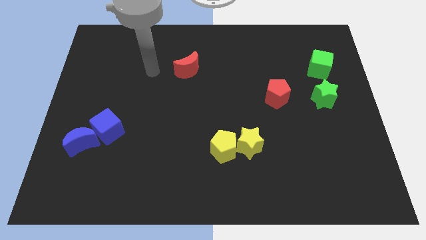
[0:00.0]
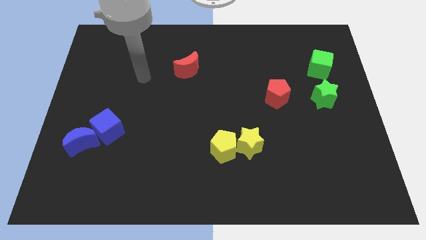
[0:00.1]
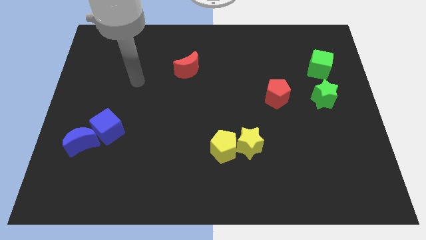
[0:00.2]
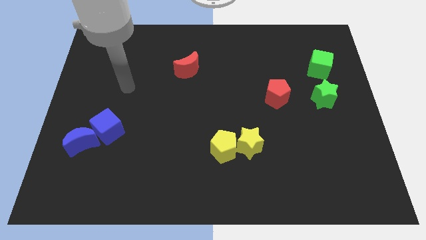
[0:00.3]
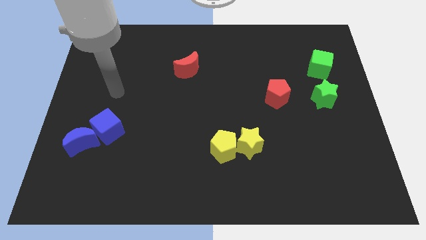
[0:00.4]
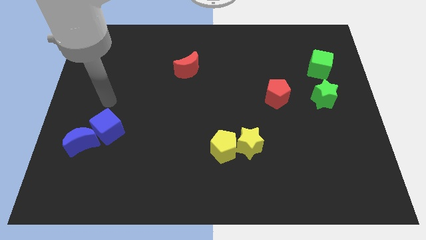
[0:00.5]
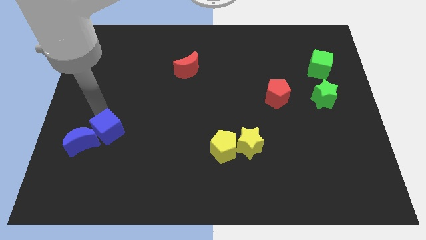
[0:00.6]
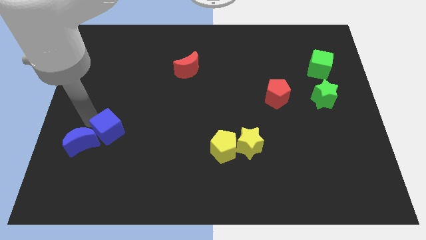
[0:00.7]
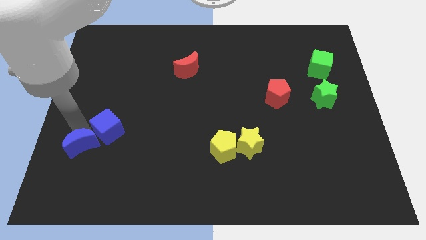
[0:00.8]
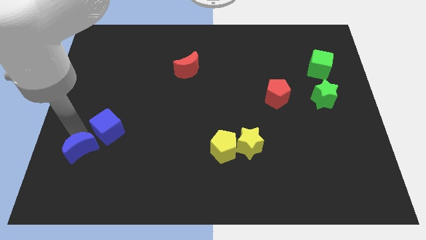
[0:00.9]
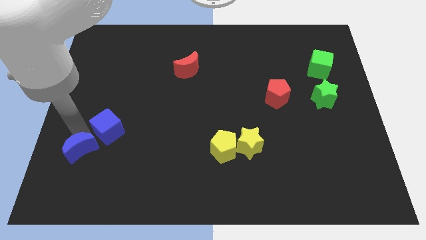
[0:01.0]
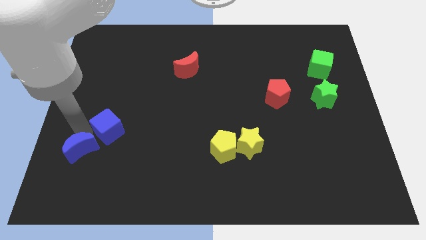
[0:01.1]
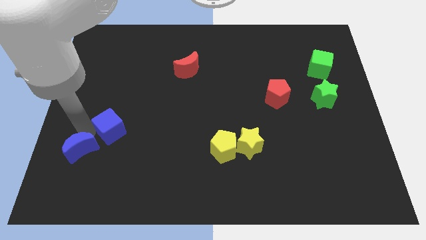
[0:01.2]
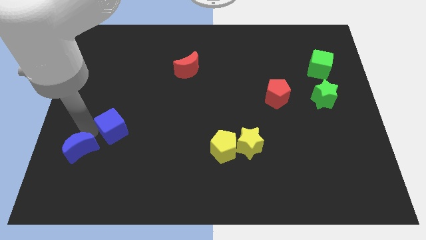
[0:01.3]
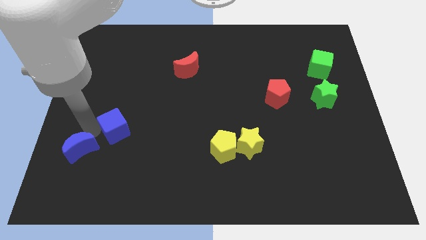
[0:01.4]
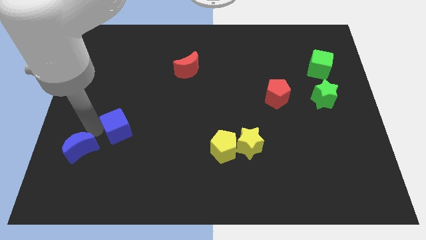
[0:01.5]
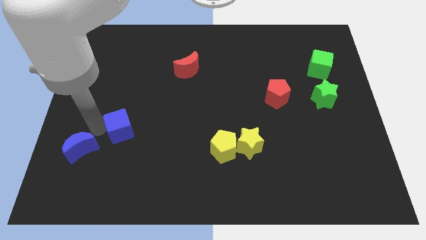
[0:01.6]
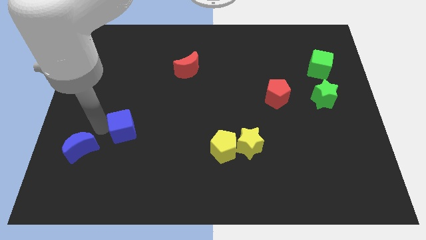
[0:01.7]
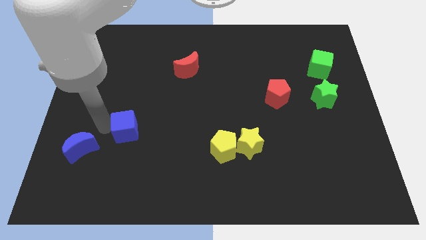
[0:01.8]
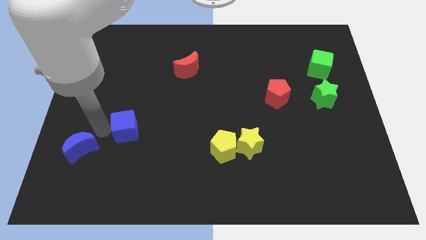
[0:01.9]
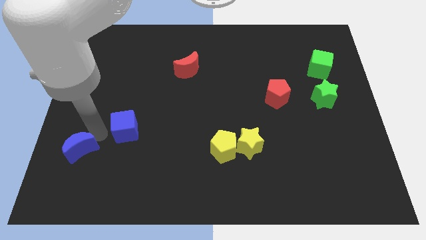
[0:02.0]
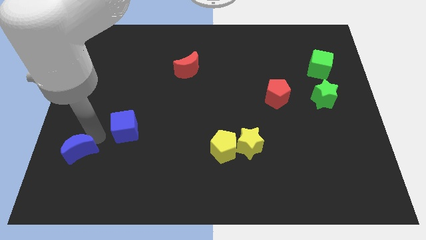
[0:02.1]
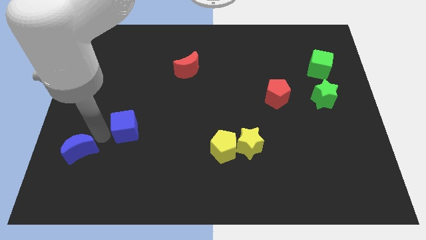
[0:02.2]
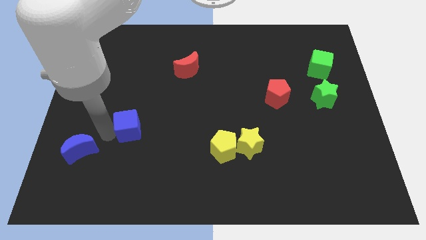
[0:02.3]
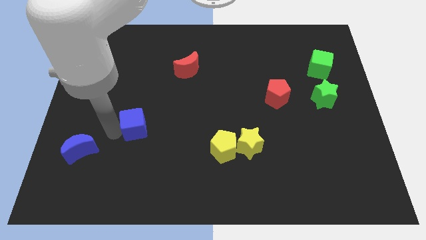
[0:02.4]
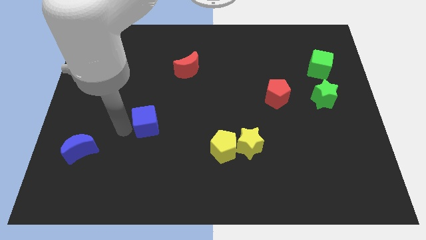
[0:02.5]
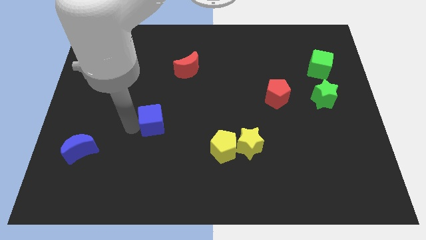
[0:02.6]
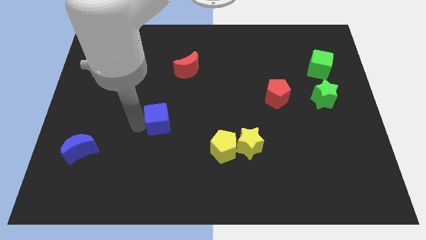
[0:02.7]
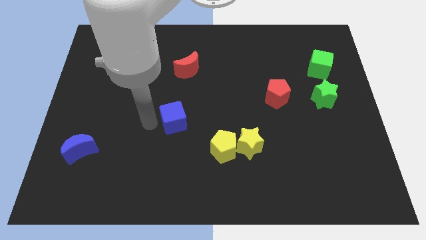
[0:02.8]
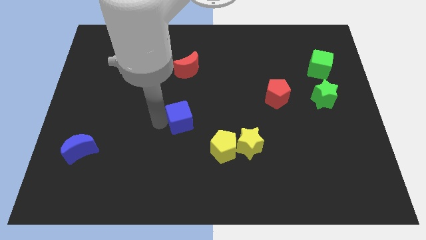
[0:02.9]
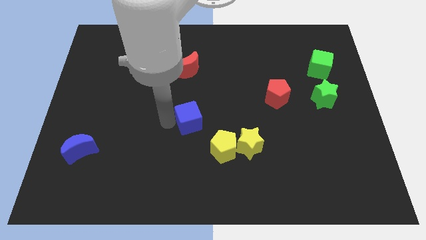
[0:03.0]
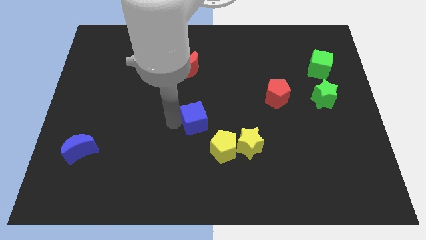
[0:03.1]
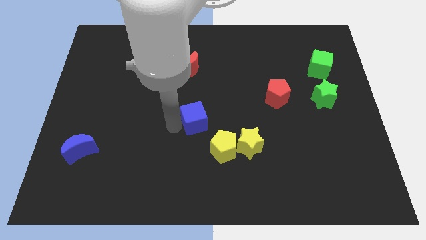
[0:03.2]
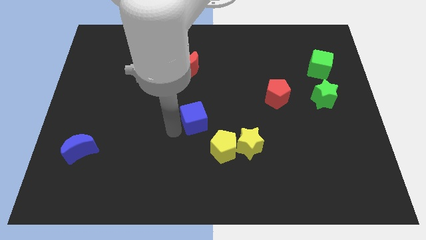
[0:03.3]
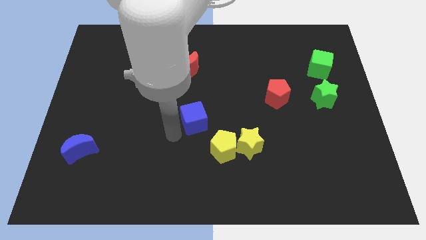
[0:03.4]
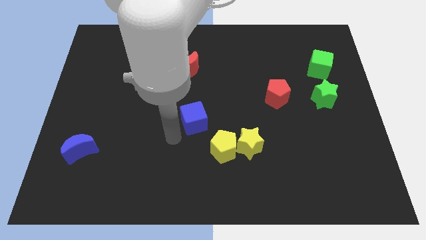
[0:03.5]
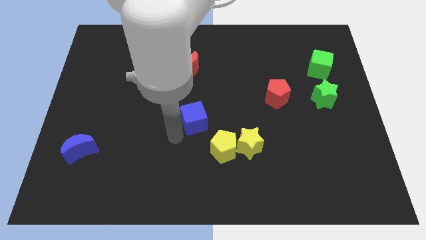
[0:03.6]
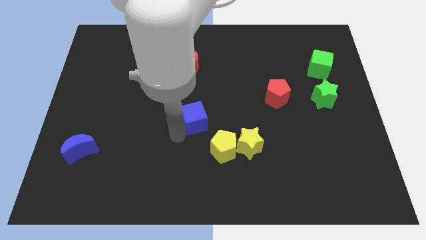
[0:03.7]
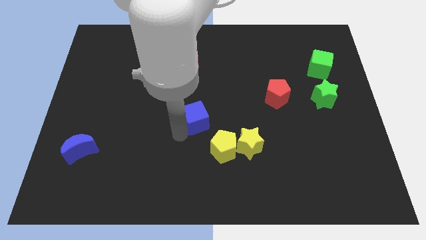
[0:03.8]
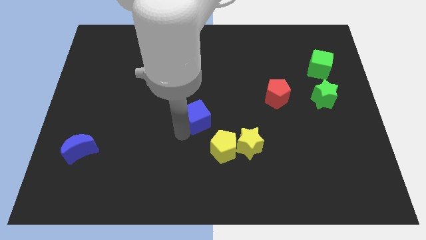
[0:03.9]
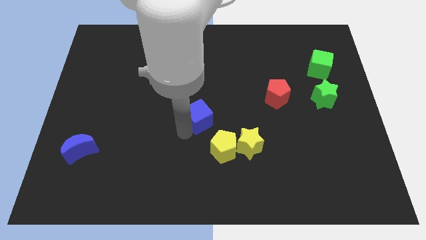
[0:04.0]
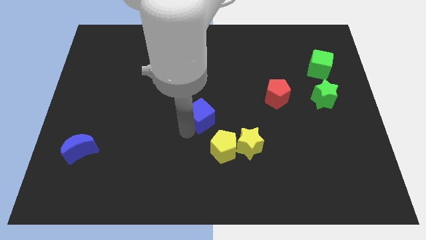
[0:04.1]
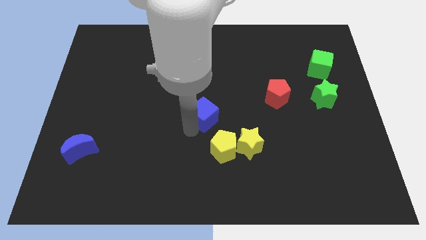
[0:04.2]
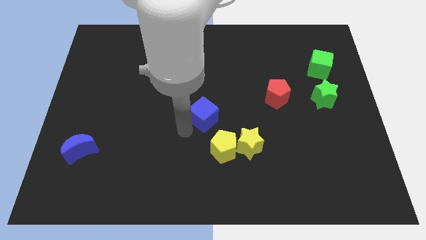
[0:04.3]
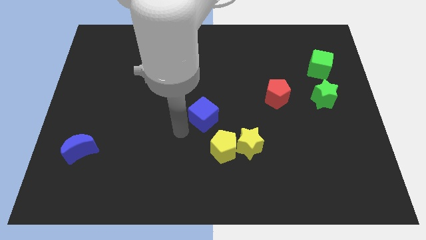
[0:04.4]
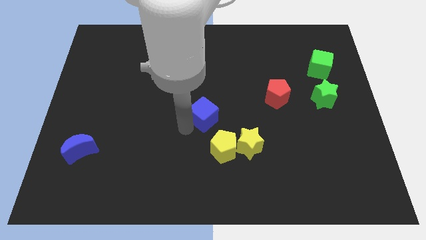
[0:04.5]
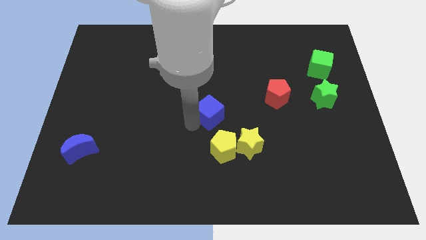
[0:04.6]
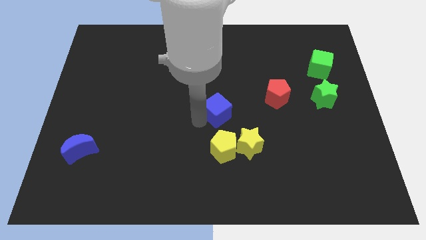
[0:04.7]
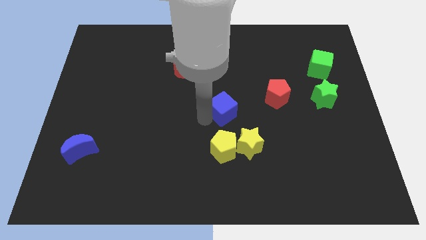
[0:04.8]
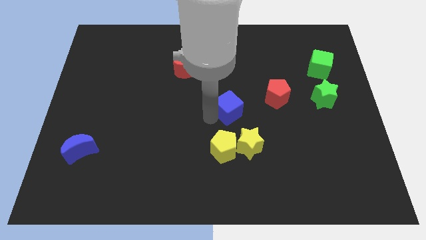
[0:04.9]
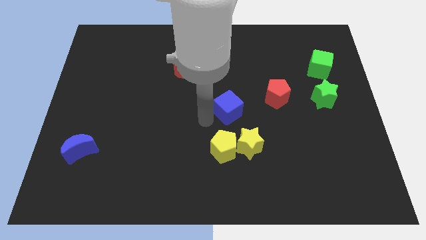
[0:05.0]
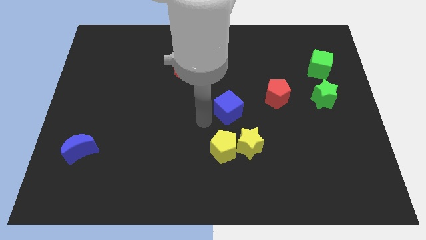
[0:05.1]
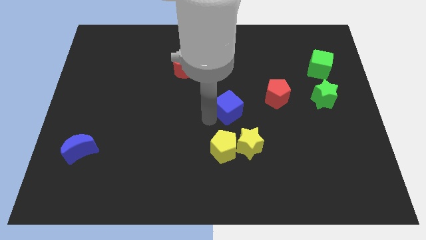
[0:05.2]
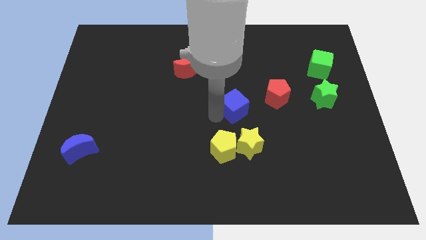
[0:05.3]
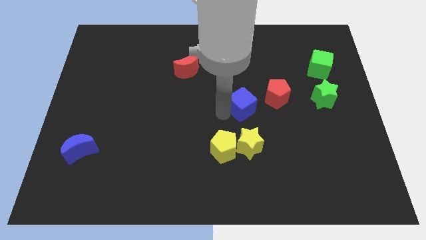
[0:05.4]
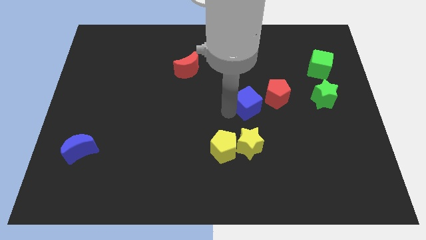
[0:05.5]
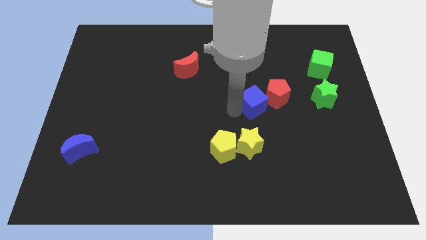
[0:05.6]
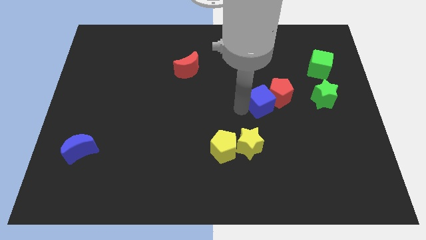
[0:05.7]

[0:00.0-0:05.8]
slide the blue cube close to the red pentagon

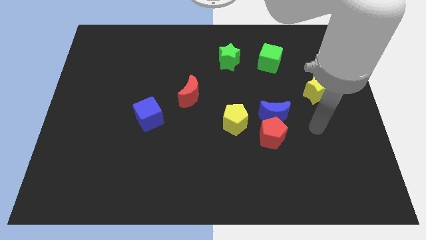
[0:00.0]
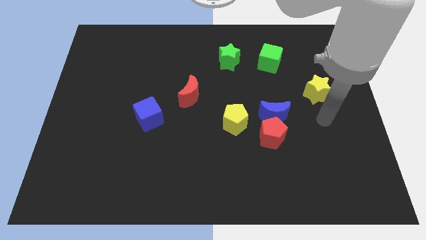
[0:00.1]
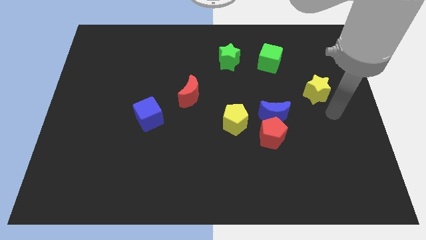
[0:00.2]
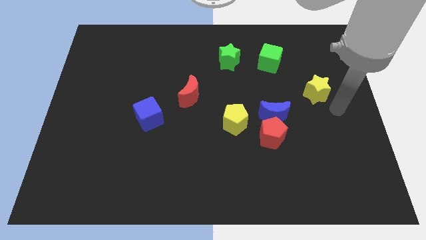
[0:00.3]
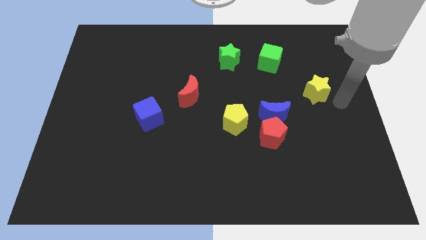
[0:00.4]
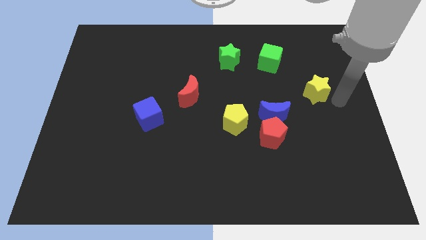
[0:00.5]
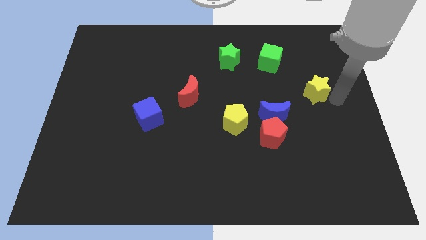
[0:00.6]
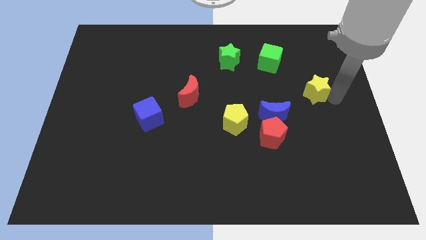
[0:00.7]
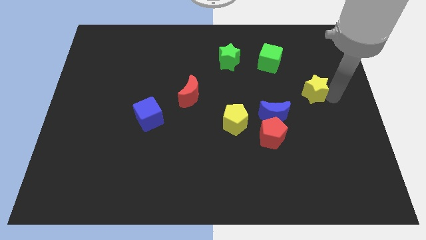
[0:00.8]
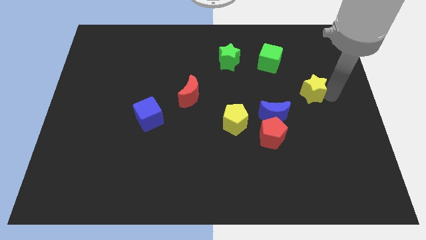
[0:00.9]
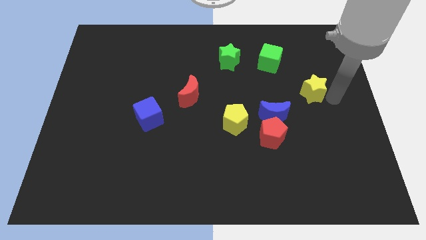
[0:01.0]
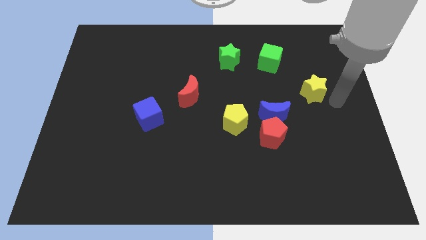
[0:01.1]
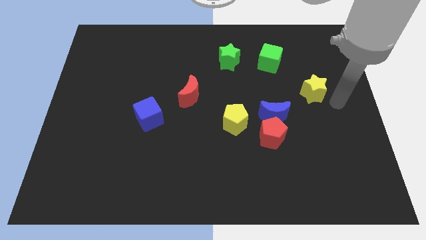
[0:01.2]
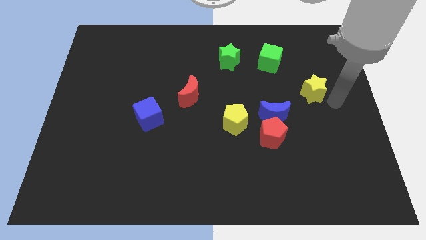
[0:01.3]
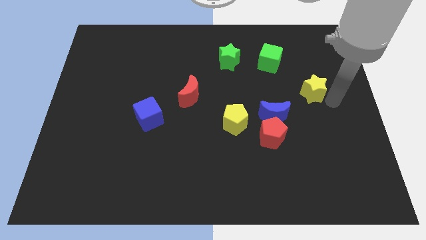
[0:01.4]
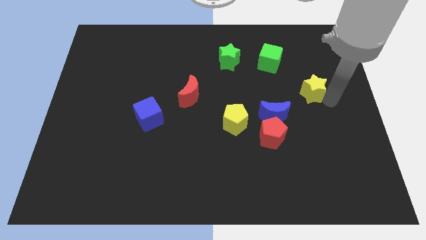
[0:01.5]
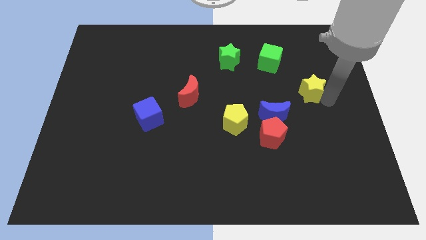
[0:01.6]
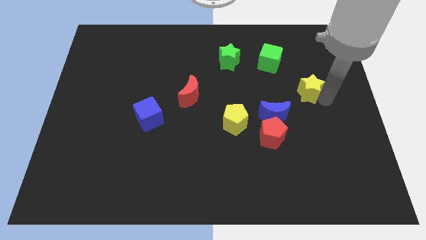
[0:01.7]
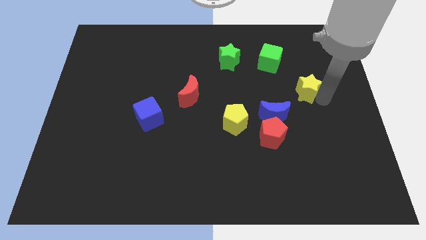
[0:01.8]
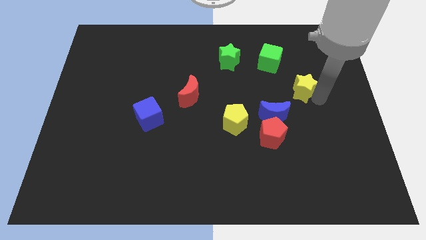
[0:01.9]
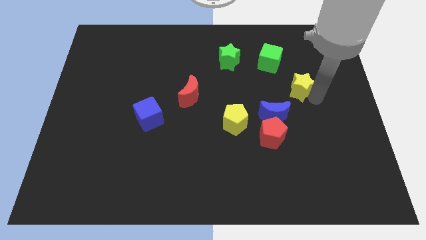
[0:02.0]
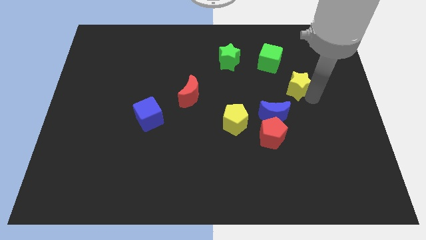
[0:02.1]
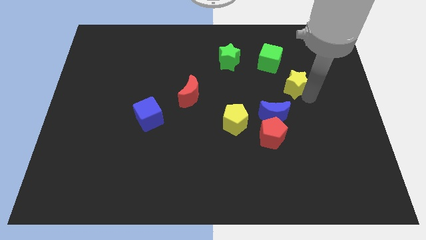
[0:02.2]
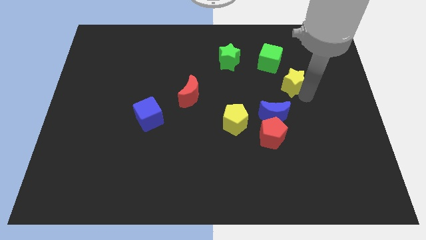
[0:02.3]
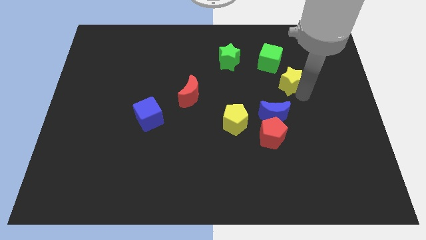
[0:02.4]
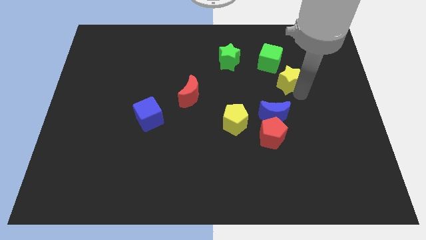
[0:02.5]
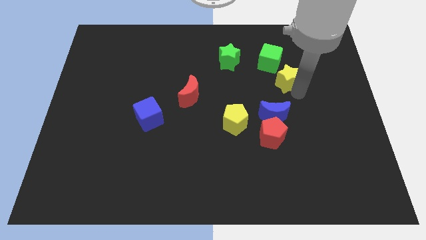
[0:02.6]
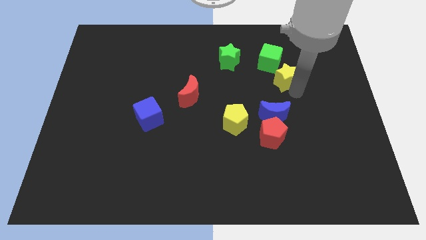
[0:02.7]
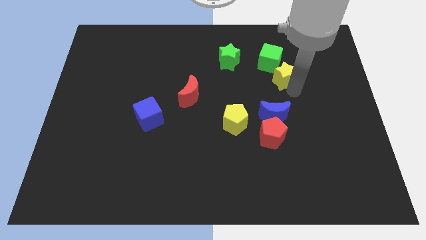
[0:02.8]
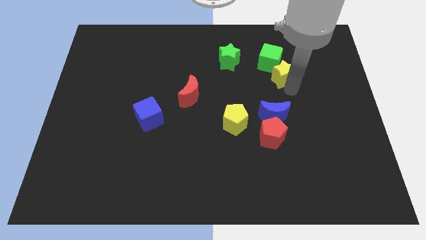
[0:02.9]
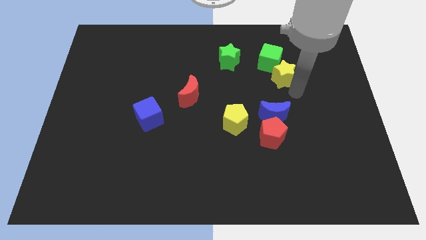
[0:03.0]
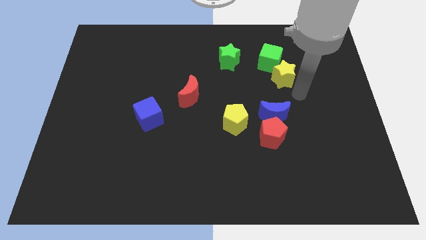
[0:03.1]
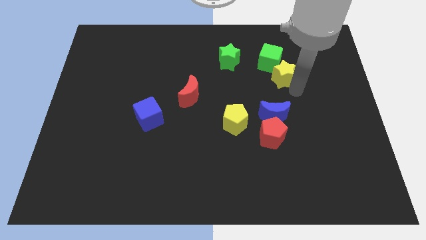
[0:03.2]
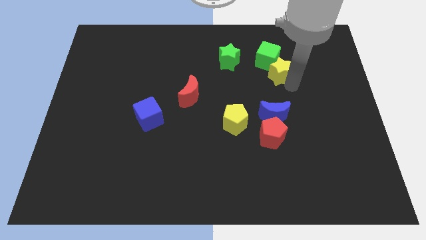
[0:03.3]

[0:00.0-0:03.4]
put the yellow star to the green cube
